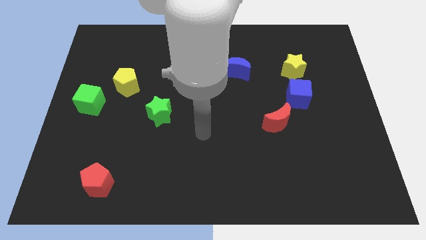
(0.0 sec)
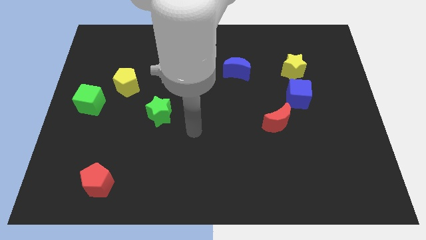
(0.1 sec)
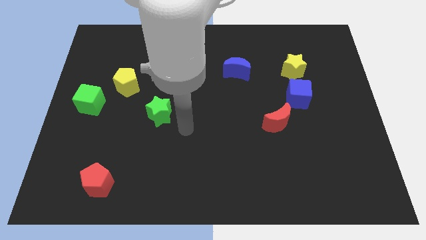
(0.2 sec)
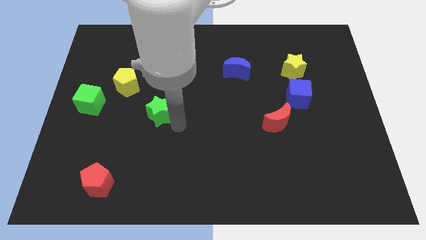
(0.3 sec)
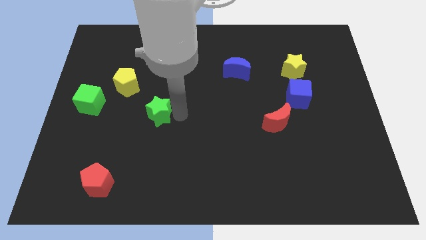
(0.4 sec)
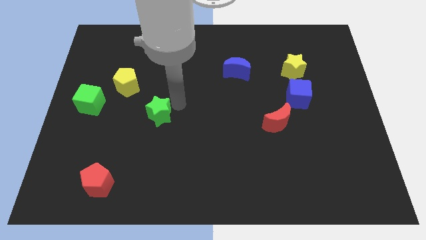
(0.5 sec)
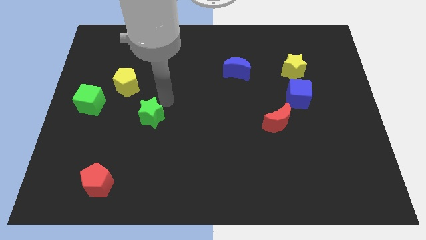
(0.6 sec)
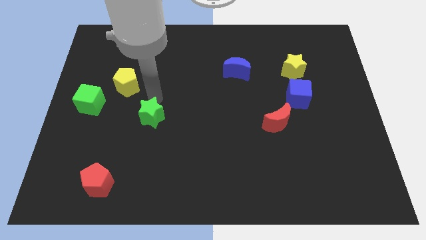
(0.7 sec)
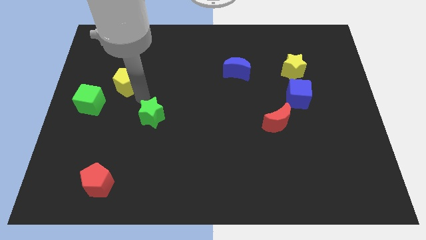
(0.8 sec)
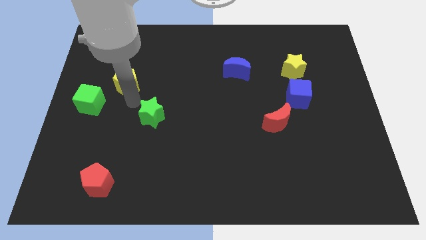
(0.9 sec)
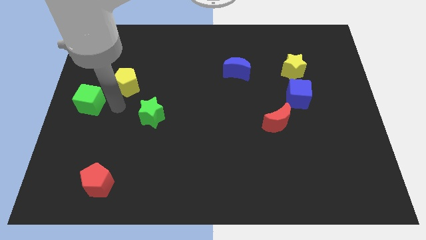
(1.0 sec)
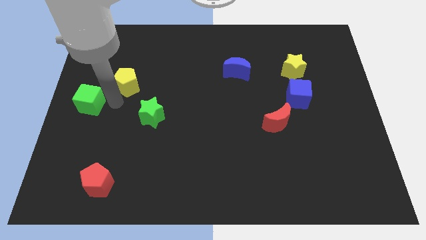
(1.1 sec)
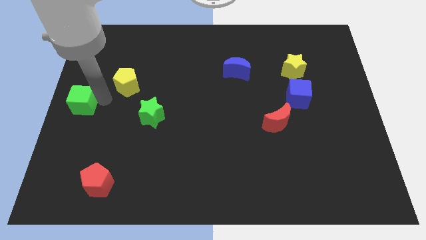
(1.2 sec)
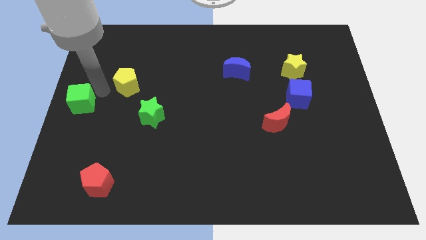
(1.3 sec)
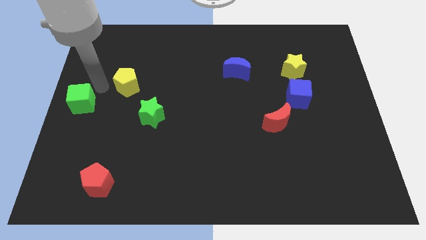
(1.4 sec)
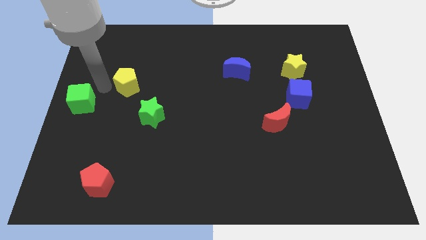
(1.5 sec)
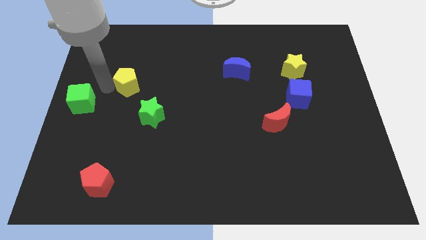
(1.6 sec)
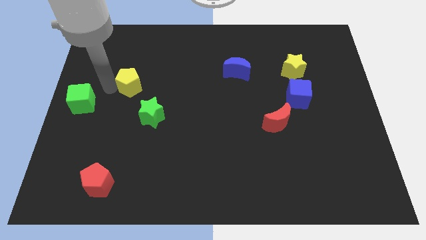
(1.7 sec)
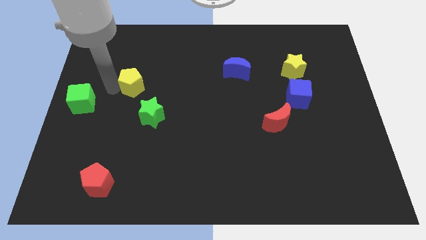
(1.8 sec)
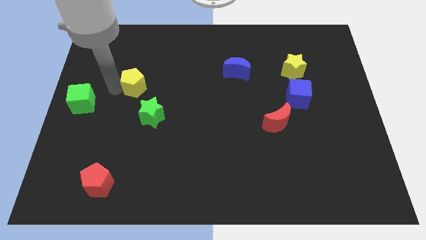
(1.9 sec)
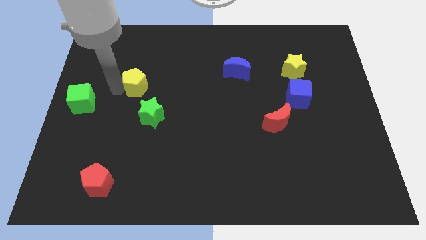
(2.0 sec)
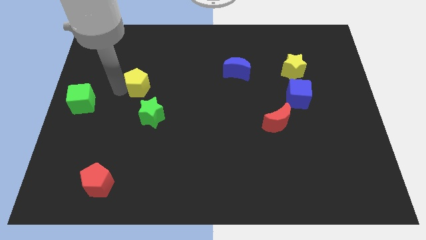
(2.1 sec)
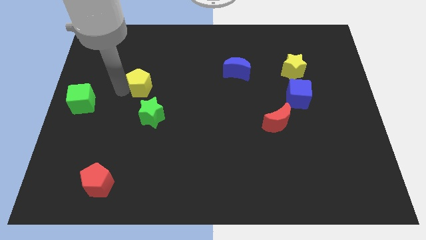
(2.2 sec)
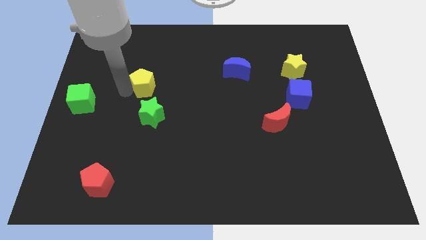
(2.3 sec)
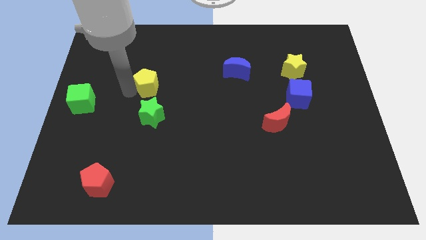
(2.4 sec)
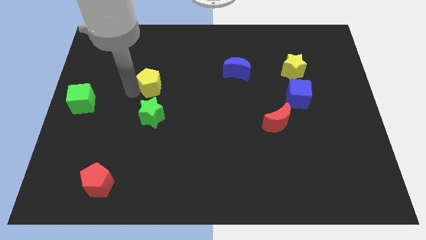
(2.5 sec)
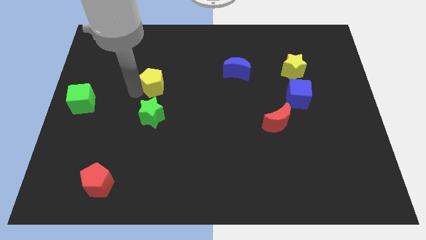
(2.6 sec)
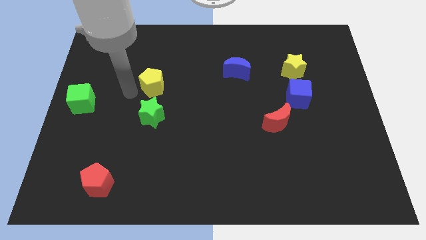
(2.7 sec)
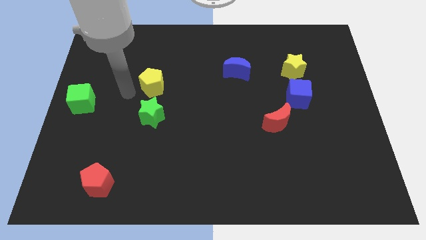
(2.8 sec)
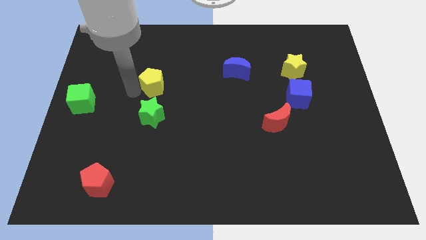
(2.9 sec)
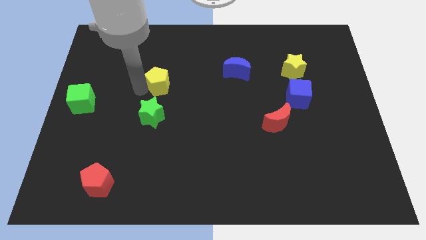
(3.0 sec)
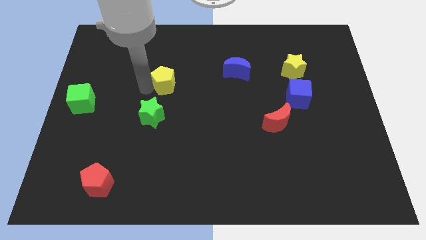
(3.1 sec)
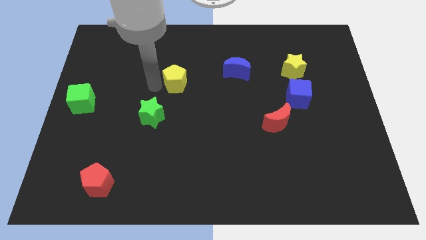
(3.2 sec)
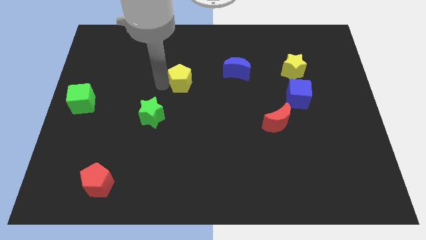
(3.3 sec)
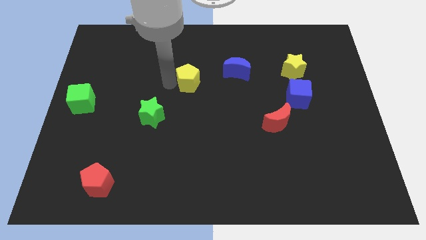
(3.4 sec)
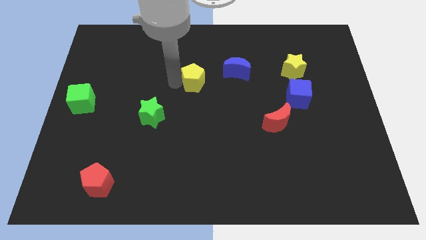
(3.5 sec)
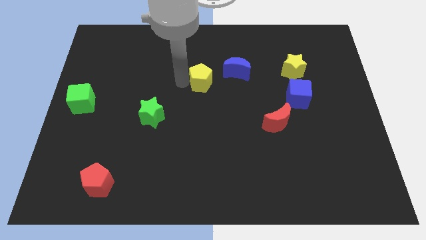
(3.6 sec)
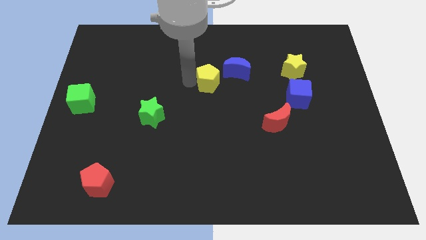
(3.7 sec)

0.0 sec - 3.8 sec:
slide the yellow pentagon right

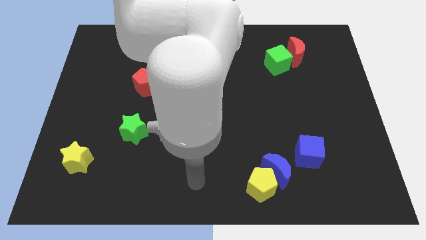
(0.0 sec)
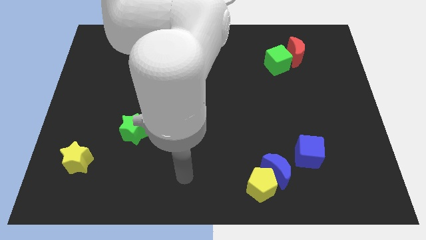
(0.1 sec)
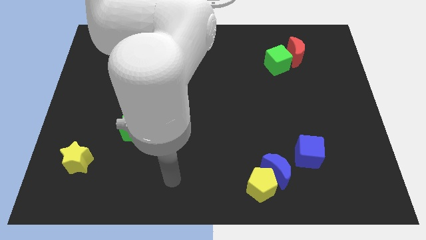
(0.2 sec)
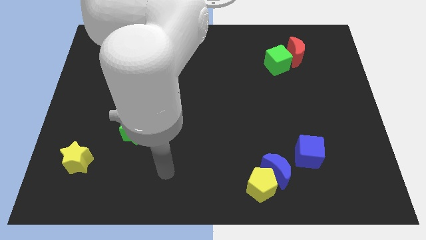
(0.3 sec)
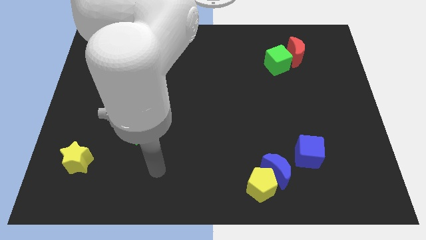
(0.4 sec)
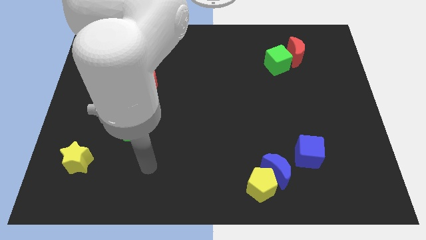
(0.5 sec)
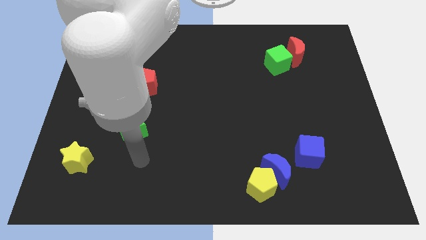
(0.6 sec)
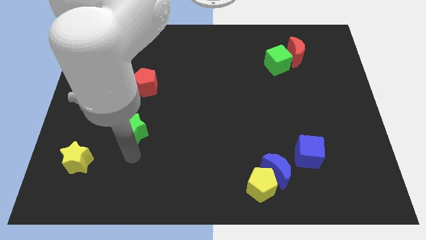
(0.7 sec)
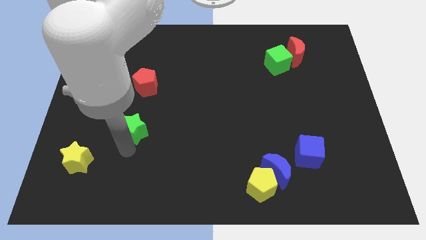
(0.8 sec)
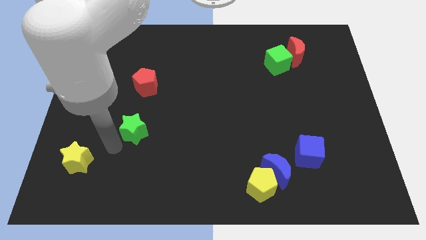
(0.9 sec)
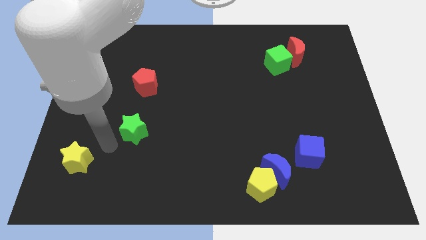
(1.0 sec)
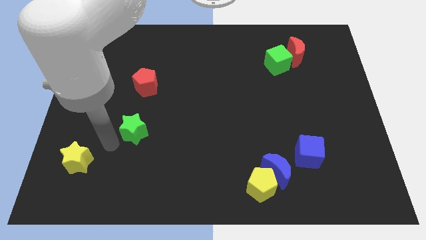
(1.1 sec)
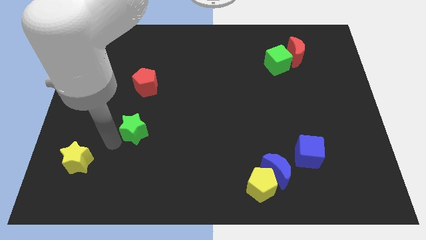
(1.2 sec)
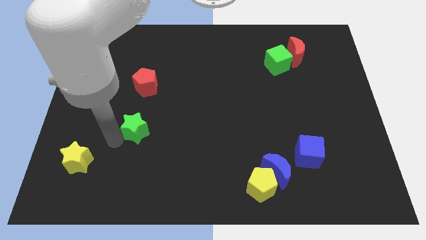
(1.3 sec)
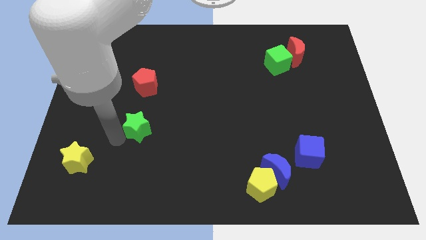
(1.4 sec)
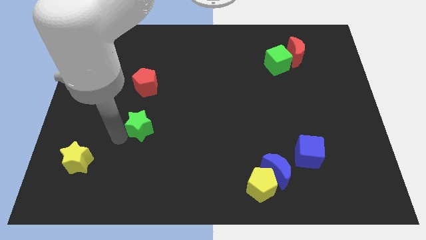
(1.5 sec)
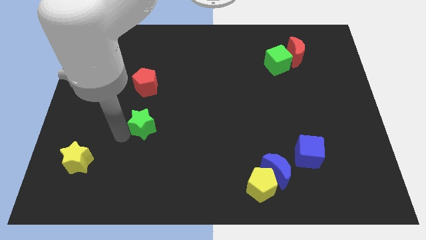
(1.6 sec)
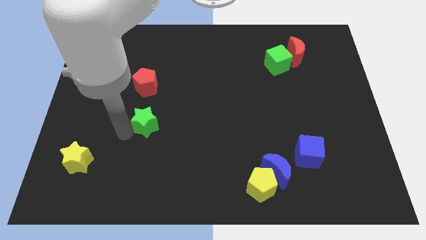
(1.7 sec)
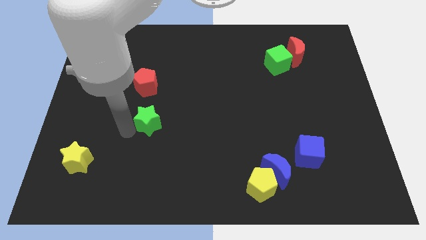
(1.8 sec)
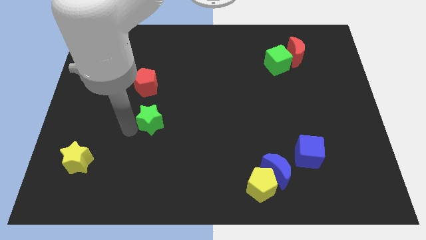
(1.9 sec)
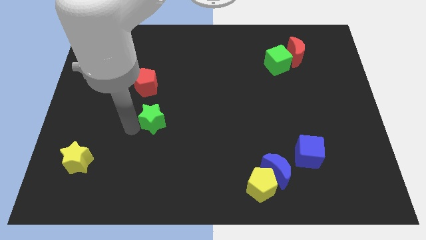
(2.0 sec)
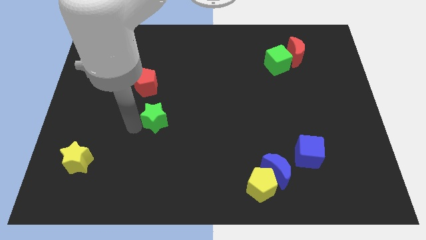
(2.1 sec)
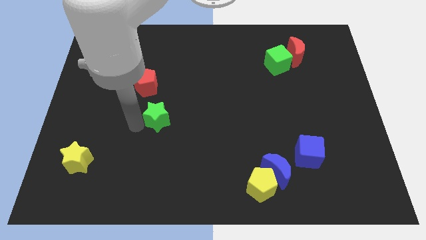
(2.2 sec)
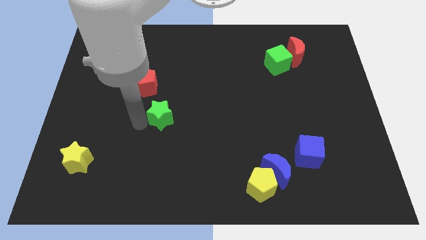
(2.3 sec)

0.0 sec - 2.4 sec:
push the green star somewhat up and to the right

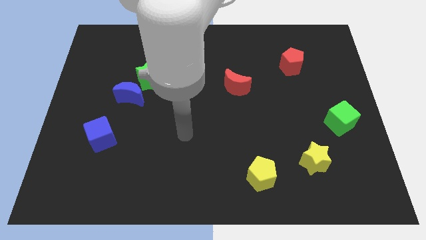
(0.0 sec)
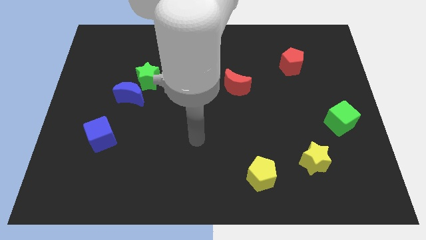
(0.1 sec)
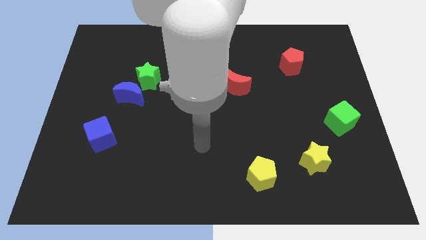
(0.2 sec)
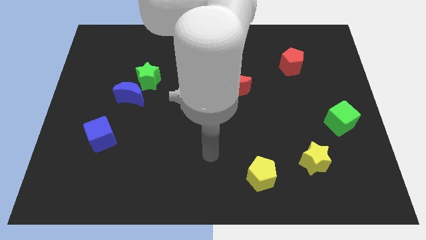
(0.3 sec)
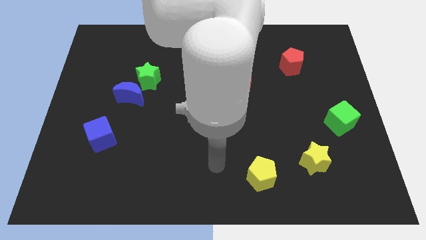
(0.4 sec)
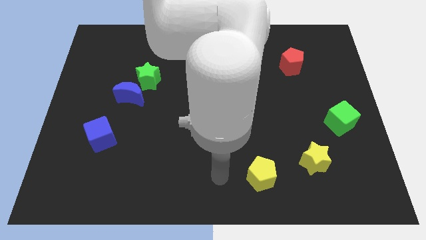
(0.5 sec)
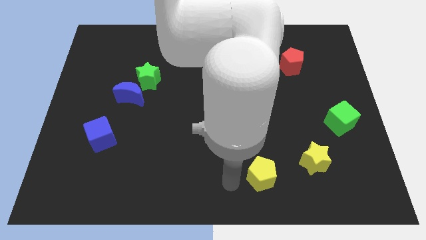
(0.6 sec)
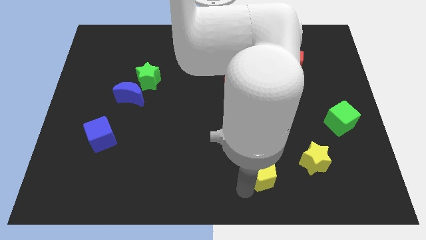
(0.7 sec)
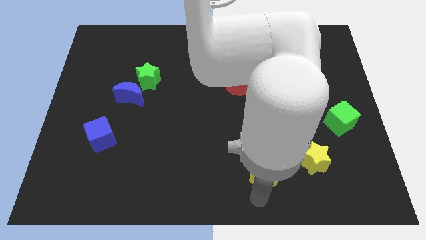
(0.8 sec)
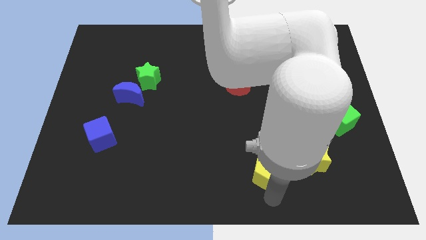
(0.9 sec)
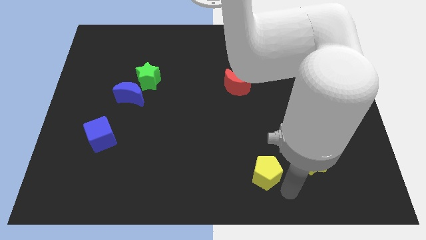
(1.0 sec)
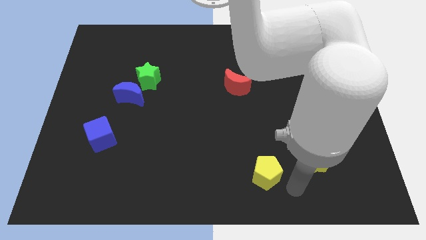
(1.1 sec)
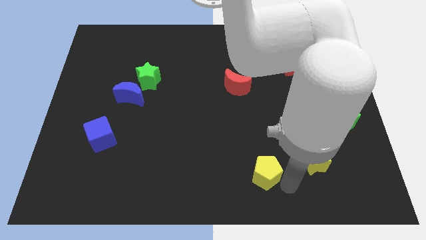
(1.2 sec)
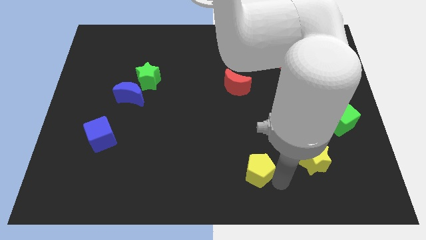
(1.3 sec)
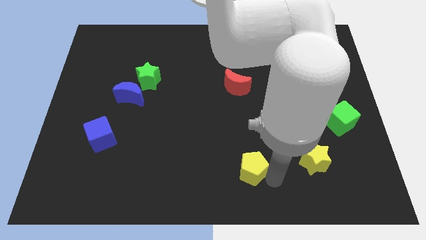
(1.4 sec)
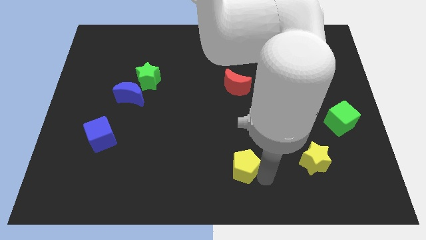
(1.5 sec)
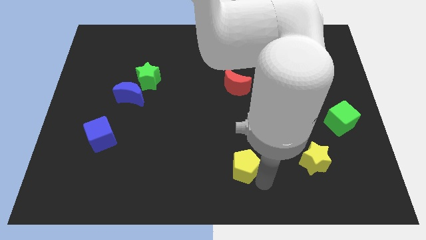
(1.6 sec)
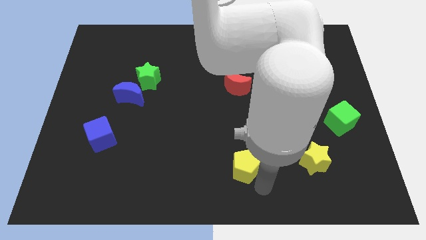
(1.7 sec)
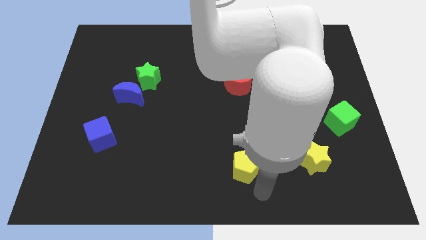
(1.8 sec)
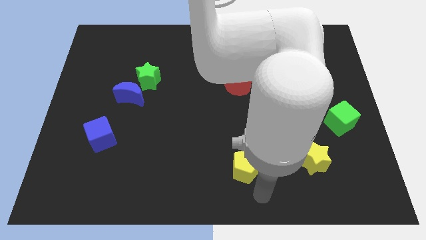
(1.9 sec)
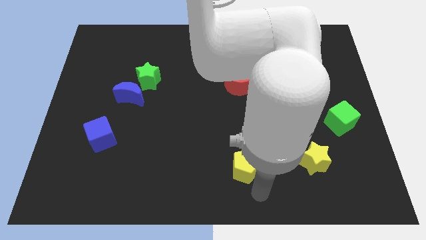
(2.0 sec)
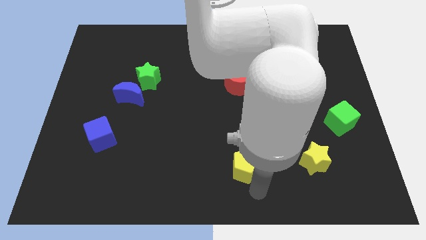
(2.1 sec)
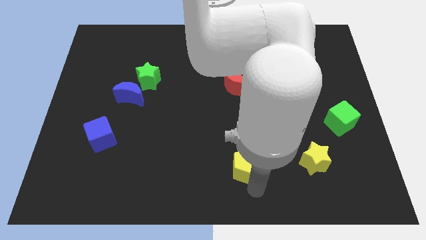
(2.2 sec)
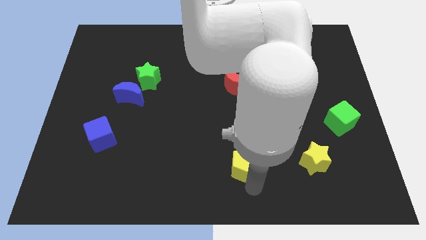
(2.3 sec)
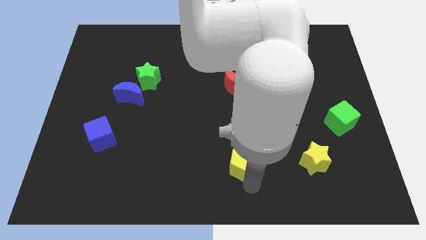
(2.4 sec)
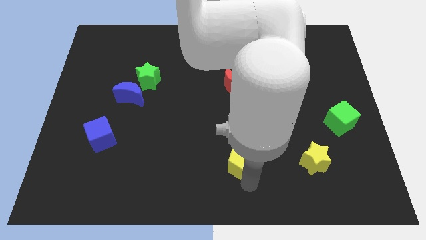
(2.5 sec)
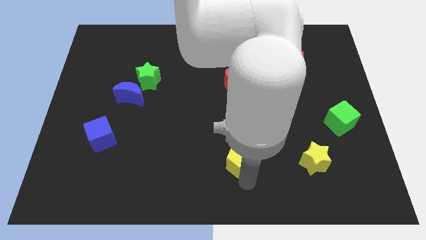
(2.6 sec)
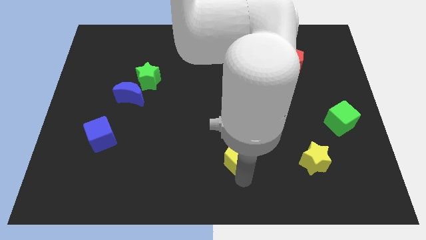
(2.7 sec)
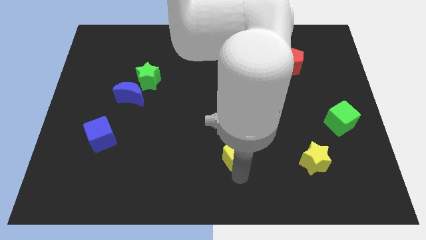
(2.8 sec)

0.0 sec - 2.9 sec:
slightly slide the yellow pentagon diagonally up and to the left
